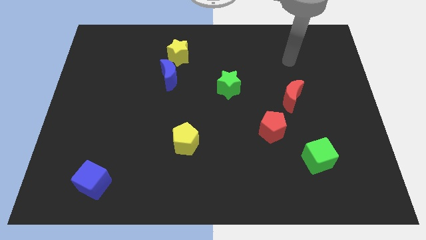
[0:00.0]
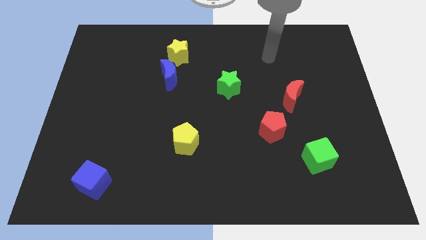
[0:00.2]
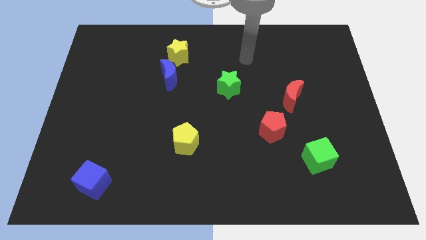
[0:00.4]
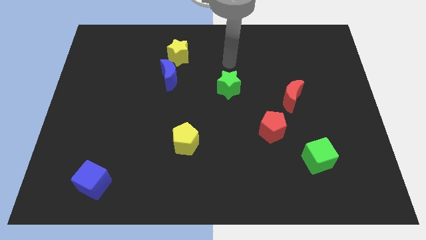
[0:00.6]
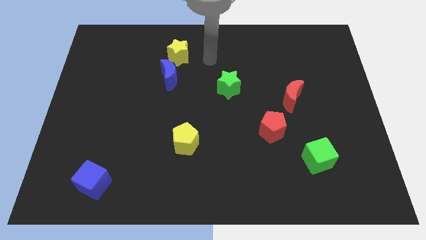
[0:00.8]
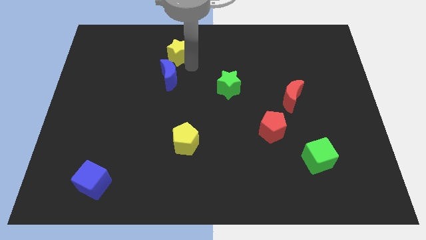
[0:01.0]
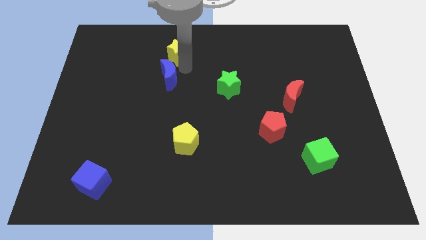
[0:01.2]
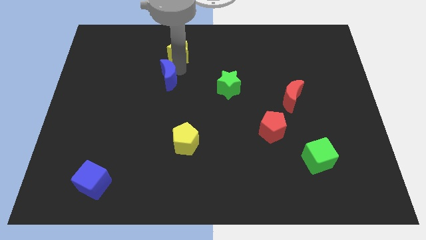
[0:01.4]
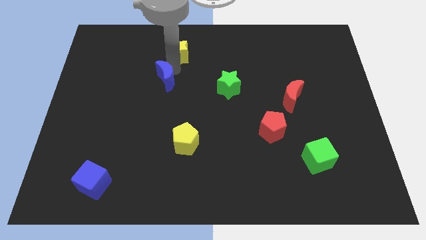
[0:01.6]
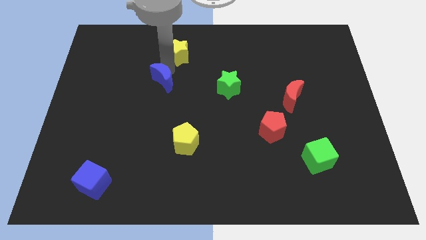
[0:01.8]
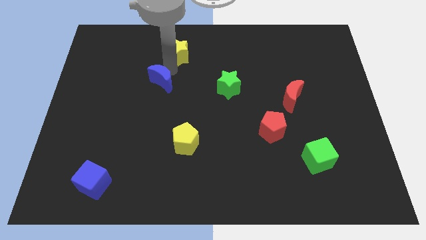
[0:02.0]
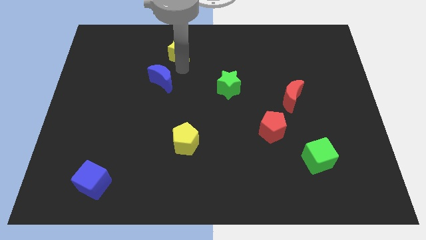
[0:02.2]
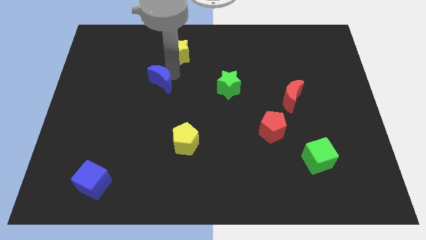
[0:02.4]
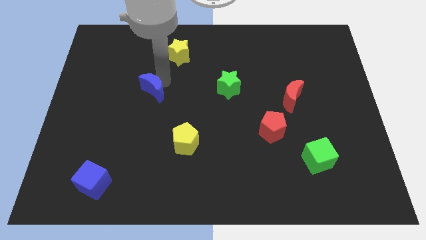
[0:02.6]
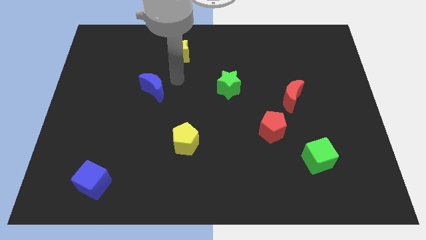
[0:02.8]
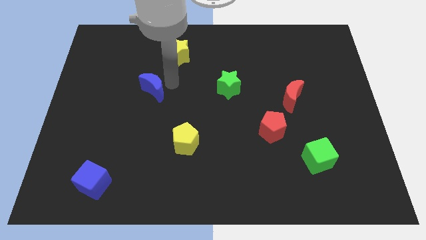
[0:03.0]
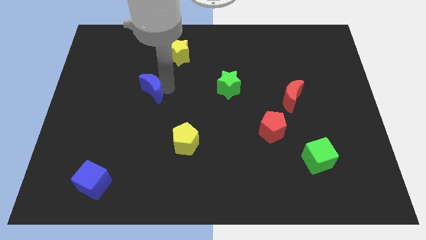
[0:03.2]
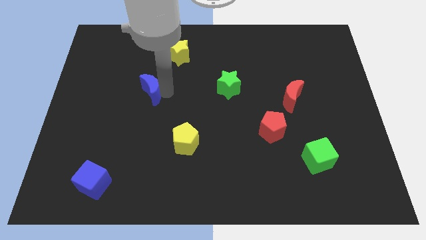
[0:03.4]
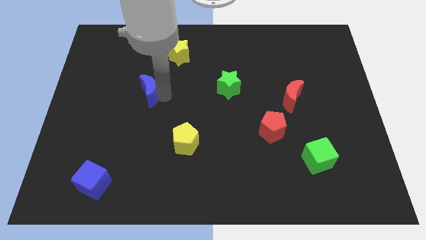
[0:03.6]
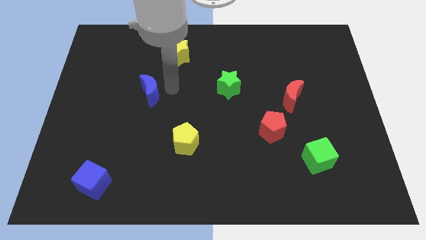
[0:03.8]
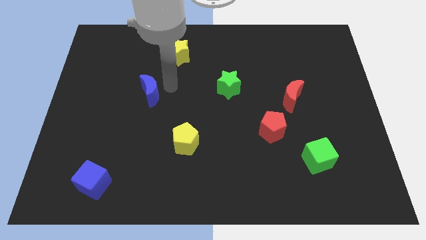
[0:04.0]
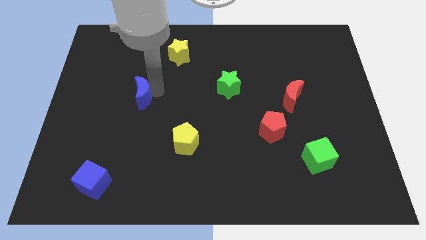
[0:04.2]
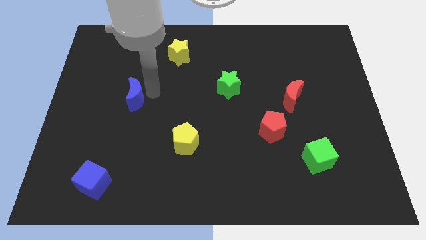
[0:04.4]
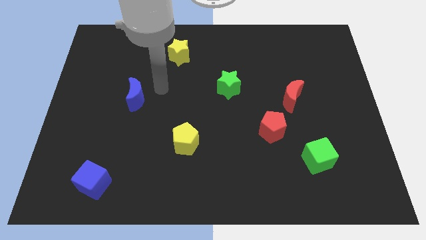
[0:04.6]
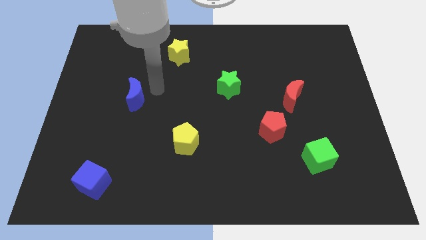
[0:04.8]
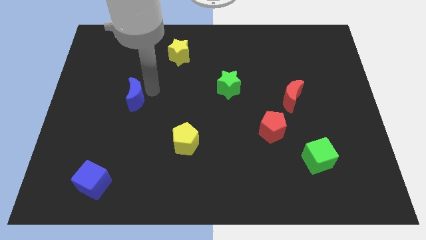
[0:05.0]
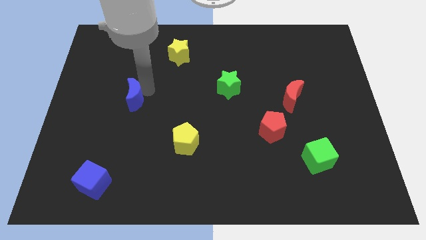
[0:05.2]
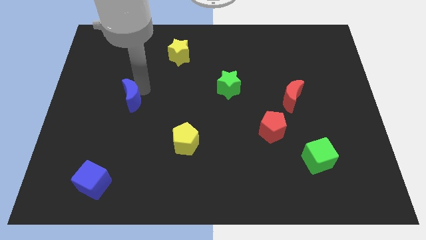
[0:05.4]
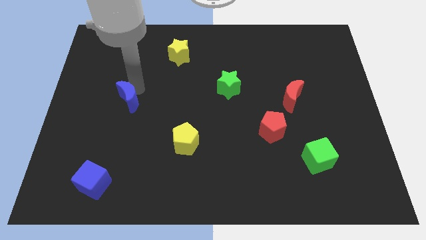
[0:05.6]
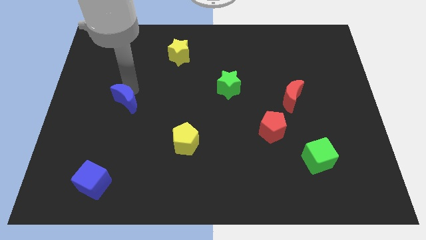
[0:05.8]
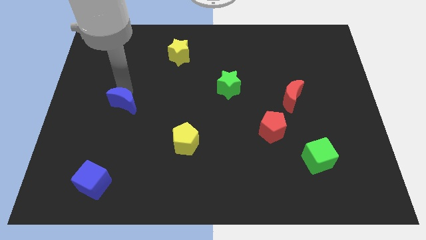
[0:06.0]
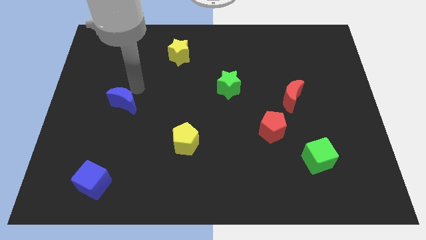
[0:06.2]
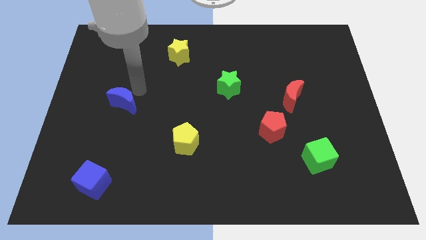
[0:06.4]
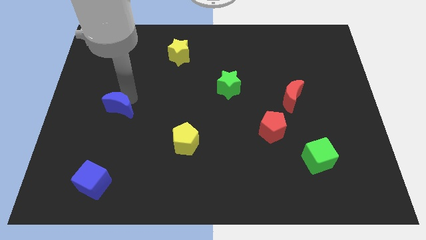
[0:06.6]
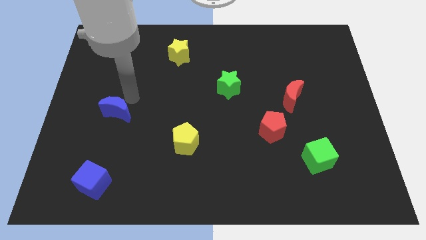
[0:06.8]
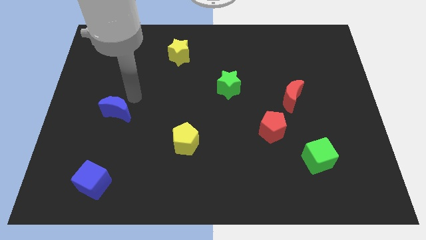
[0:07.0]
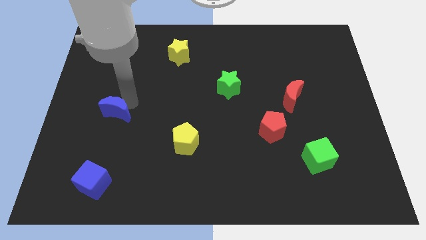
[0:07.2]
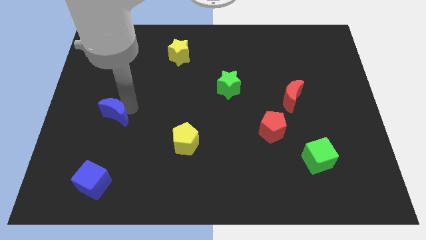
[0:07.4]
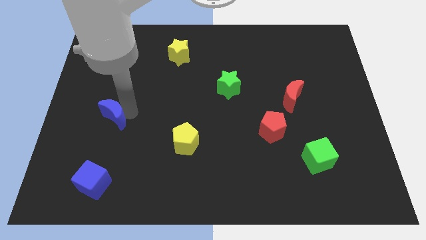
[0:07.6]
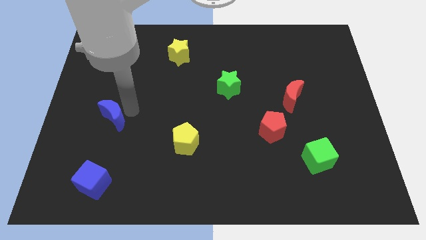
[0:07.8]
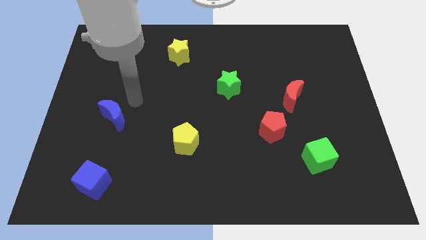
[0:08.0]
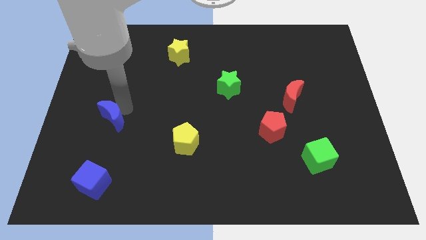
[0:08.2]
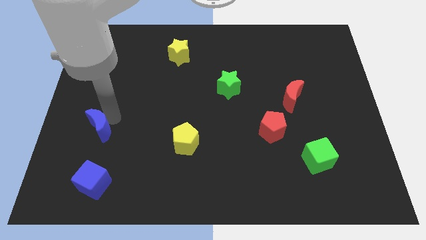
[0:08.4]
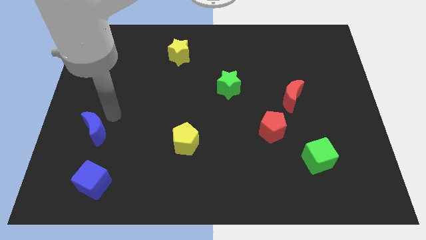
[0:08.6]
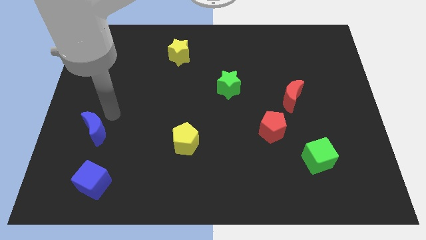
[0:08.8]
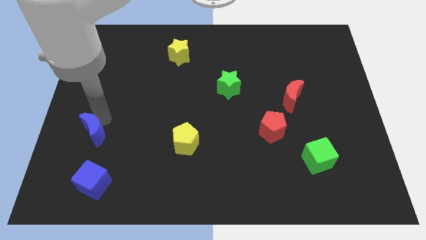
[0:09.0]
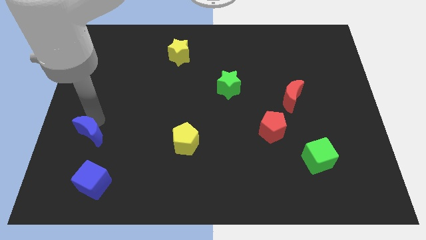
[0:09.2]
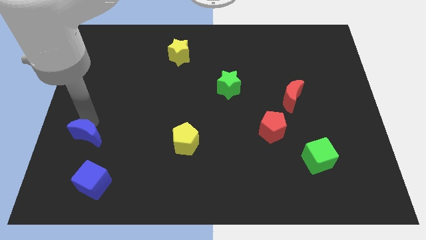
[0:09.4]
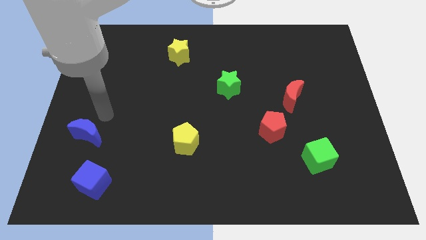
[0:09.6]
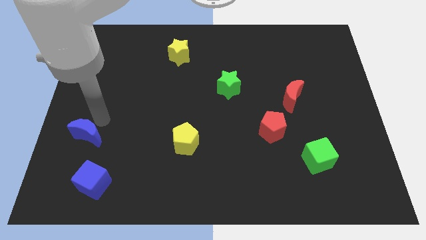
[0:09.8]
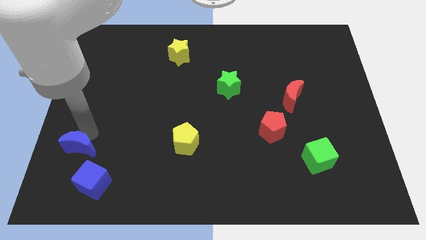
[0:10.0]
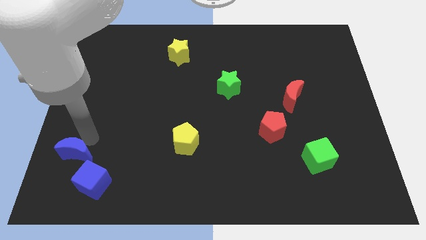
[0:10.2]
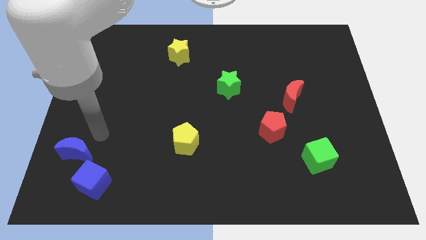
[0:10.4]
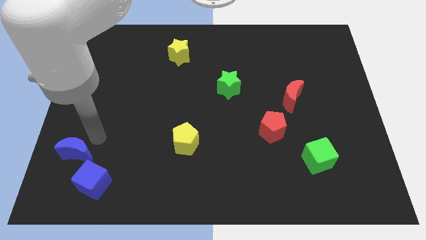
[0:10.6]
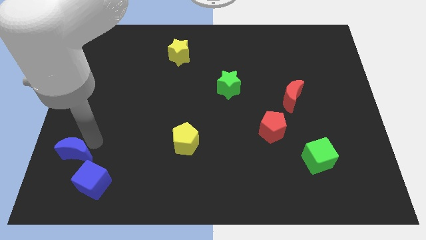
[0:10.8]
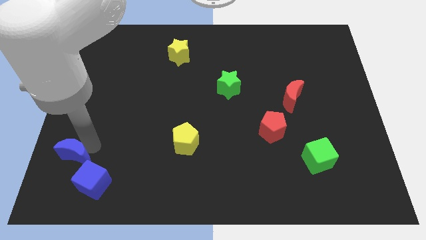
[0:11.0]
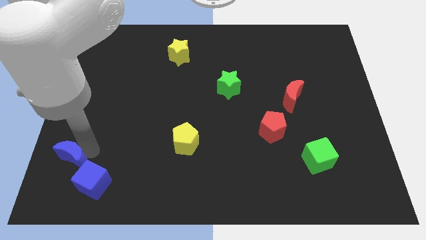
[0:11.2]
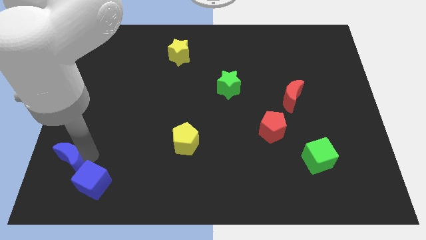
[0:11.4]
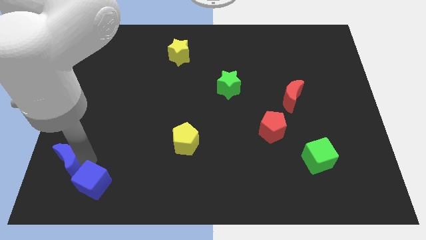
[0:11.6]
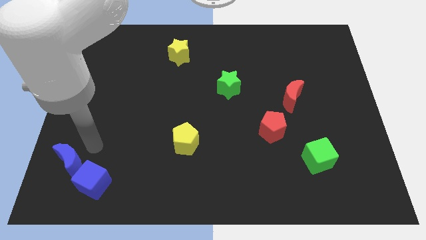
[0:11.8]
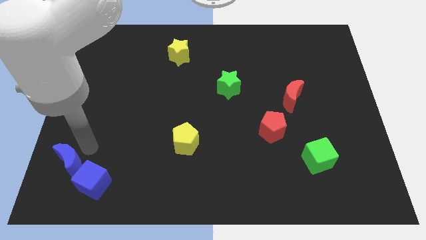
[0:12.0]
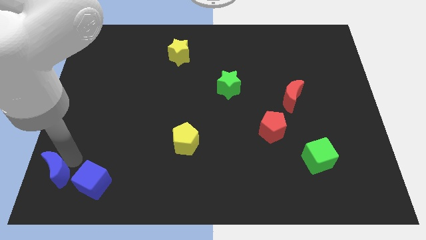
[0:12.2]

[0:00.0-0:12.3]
move the blue moon to the bottom left

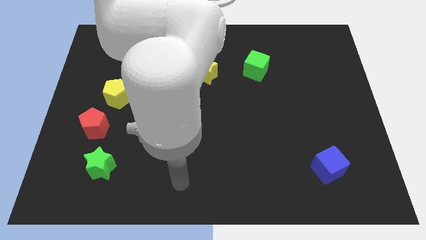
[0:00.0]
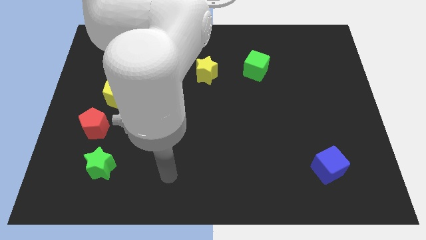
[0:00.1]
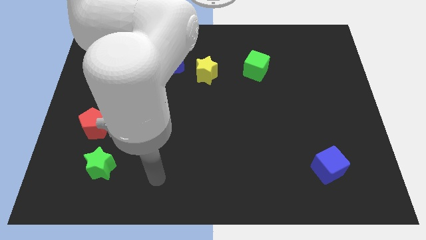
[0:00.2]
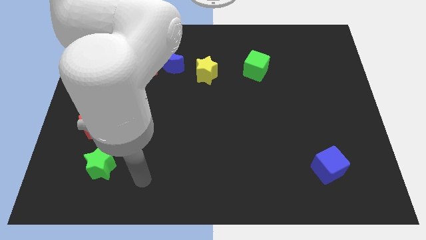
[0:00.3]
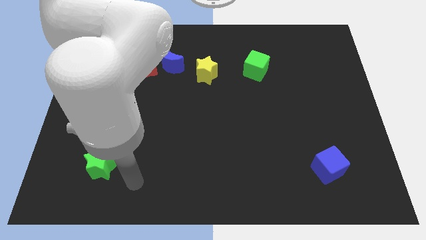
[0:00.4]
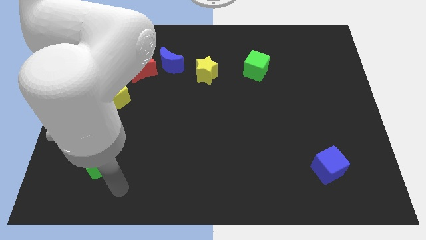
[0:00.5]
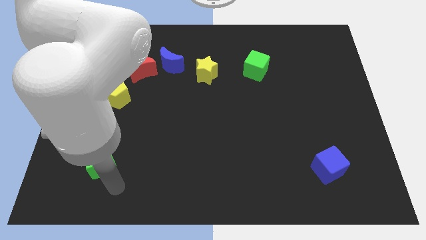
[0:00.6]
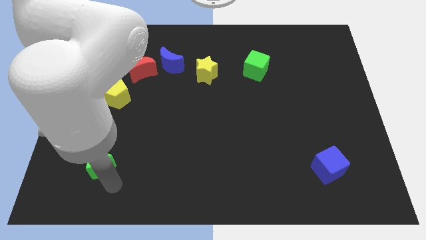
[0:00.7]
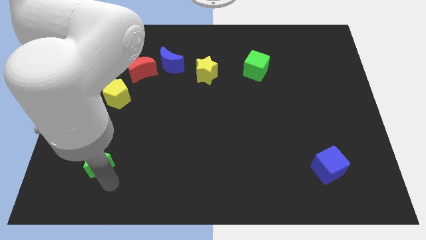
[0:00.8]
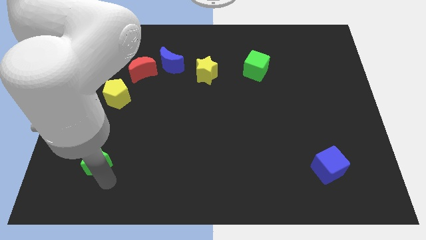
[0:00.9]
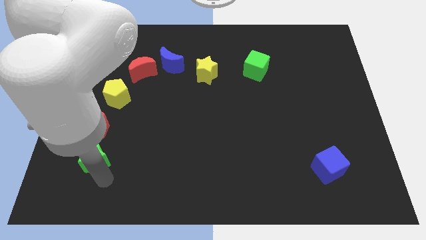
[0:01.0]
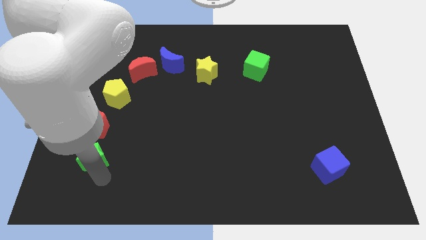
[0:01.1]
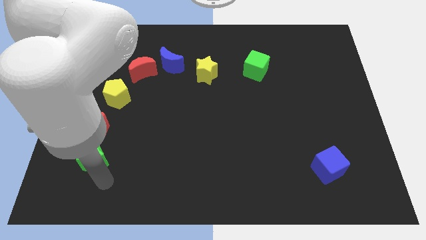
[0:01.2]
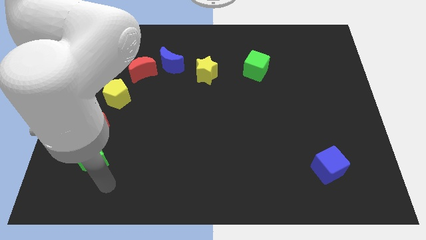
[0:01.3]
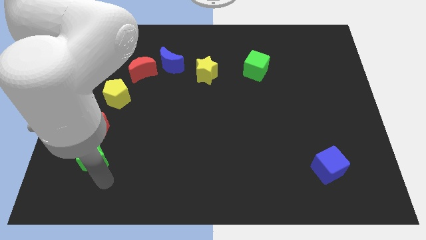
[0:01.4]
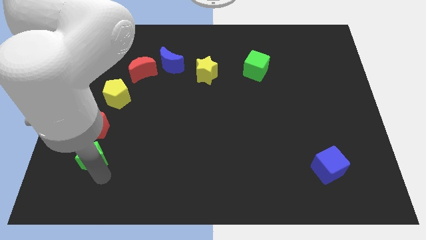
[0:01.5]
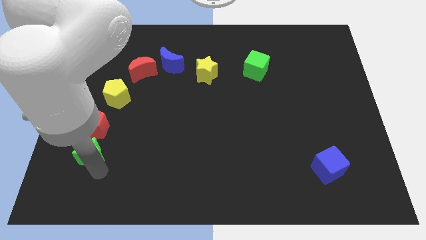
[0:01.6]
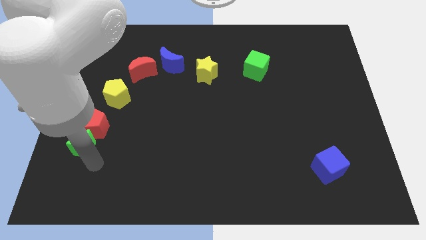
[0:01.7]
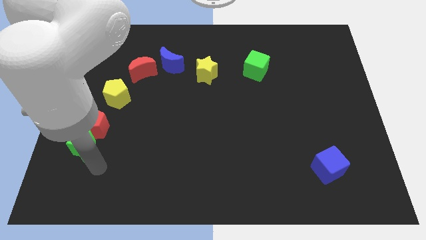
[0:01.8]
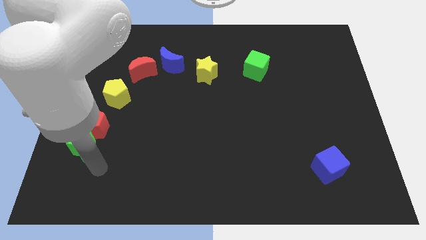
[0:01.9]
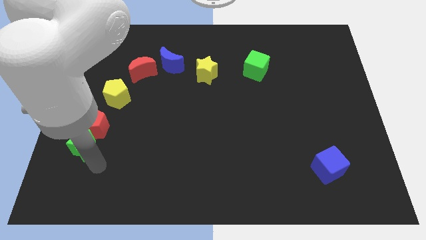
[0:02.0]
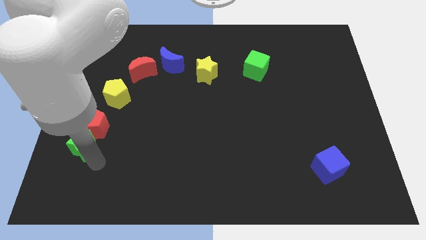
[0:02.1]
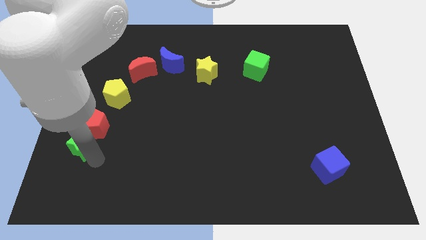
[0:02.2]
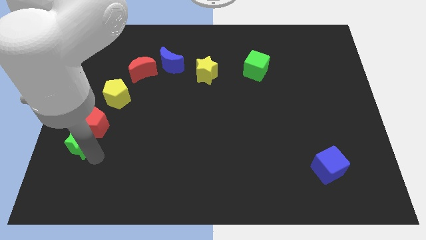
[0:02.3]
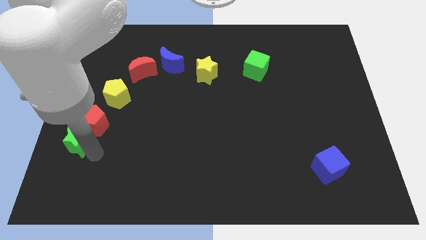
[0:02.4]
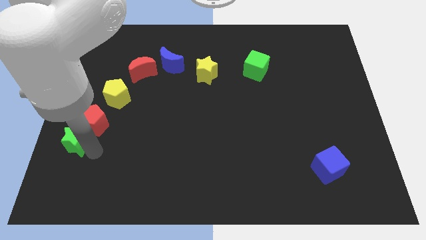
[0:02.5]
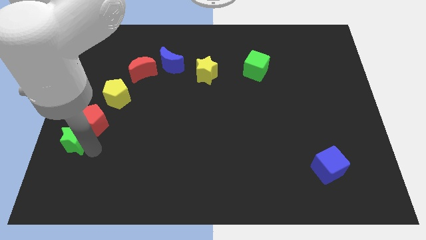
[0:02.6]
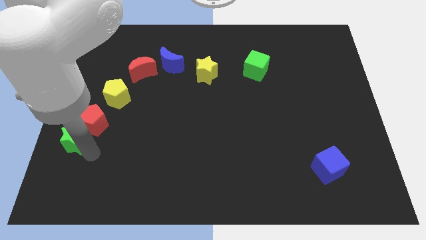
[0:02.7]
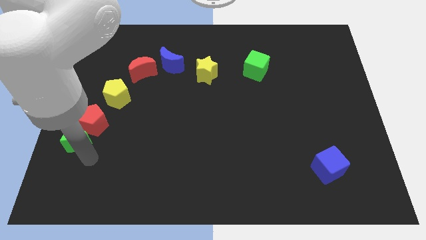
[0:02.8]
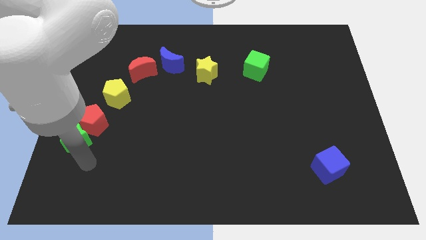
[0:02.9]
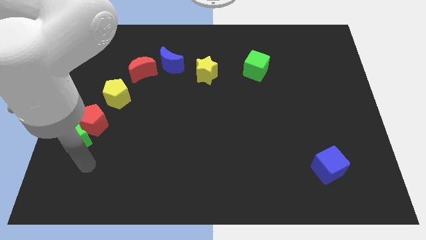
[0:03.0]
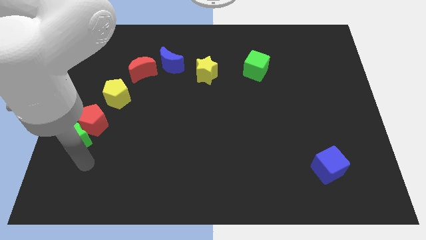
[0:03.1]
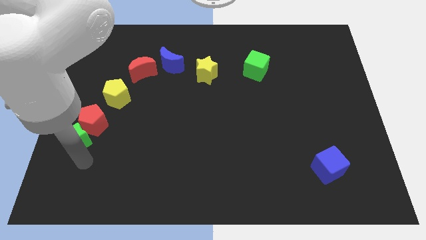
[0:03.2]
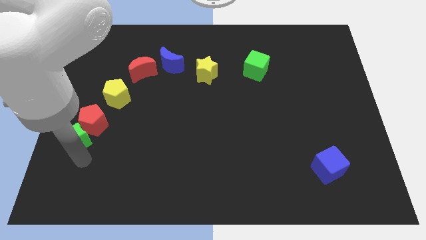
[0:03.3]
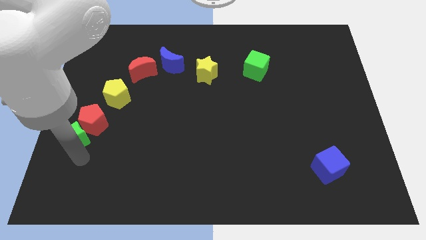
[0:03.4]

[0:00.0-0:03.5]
slide the green star to the center left
